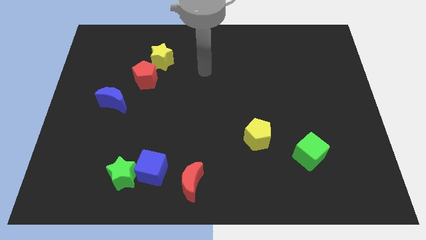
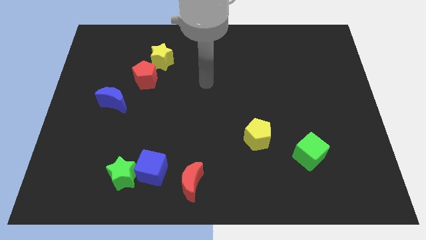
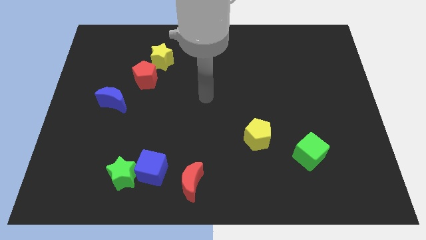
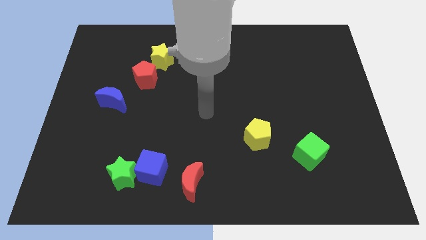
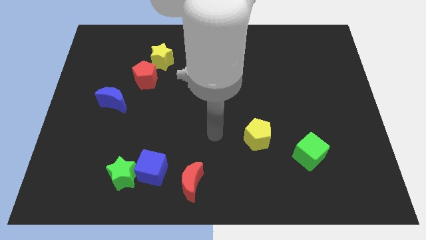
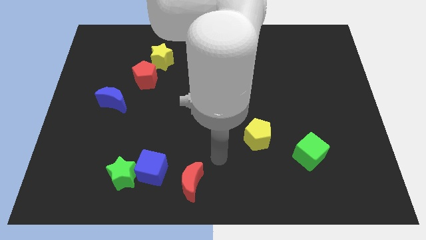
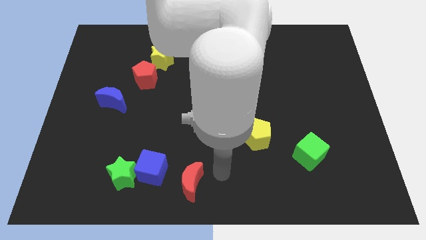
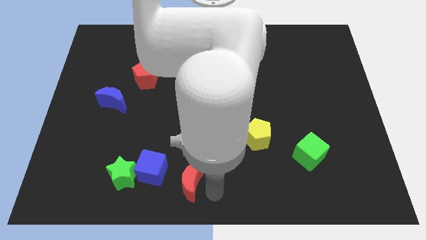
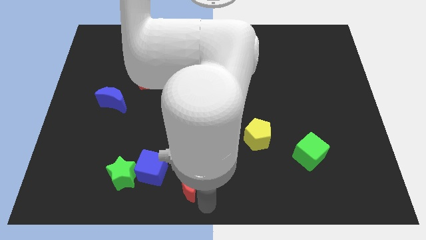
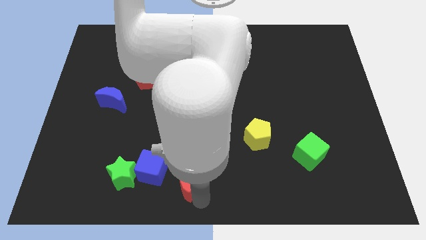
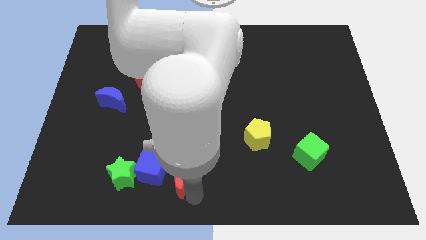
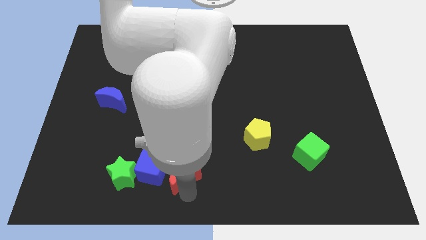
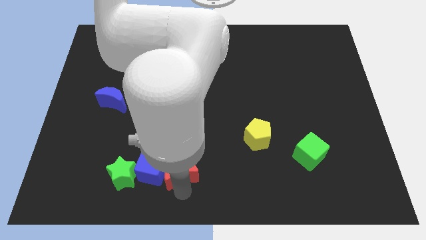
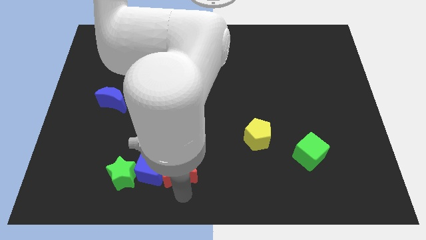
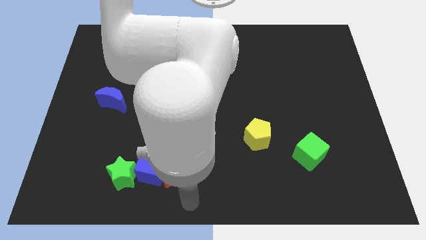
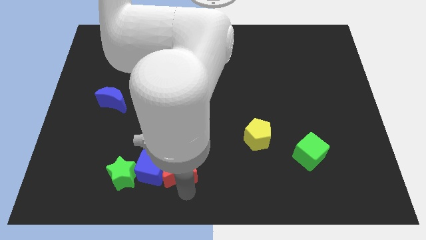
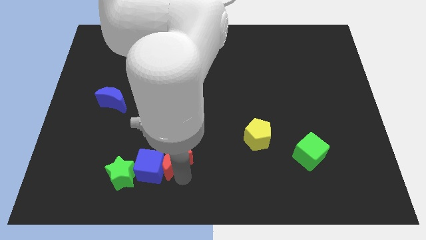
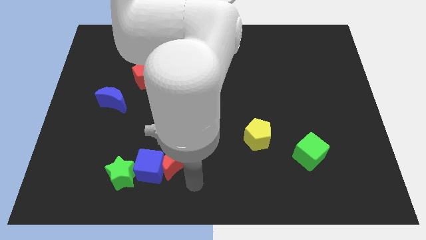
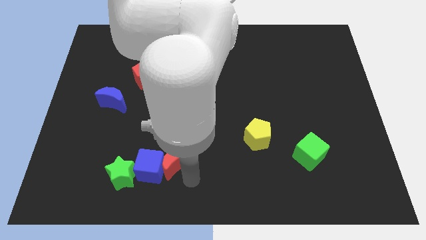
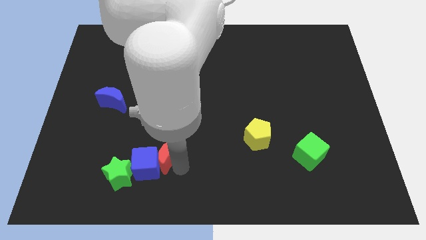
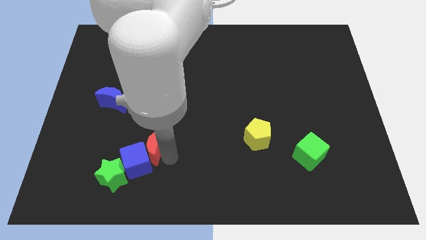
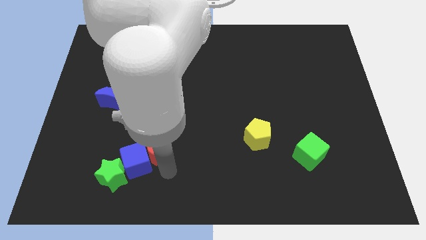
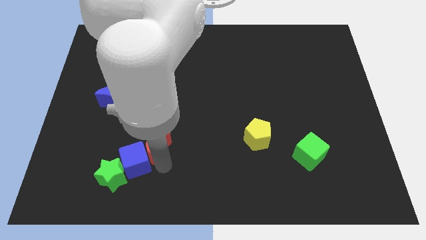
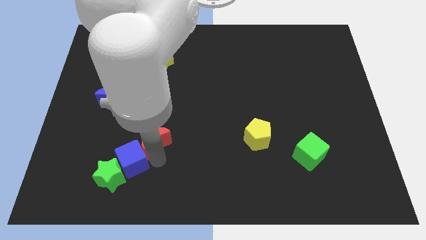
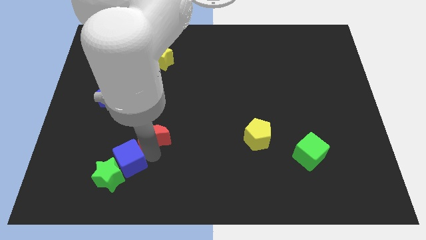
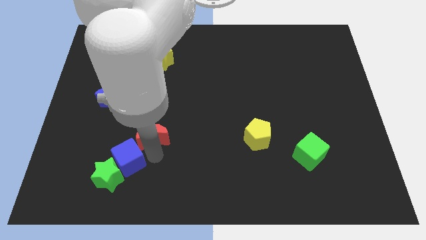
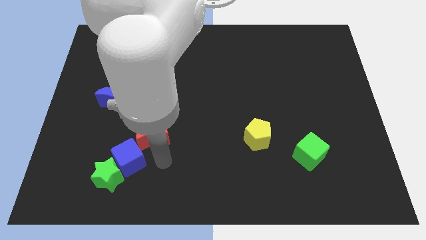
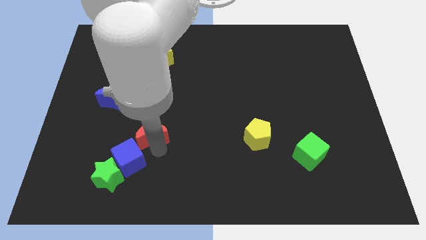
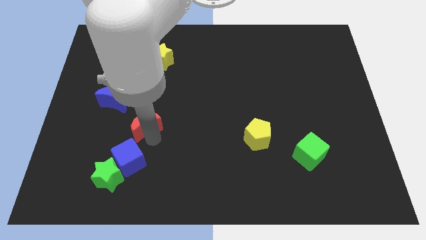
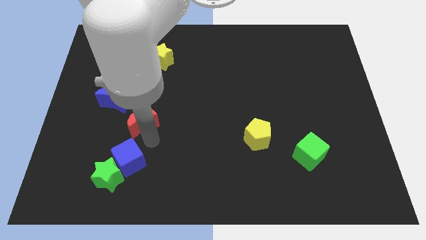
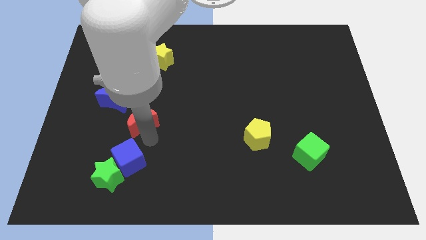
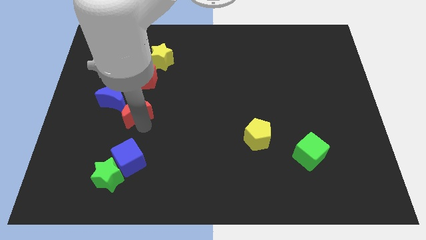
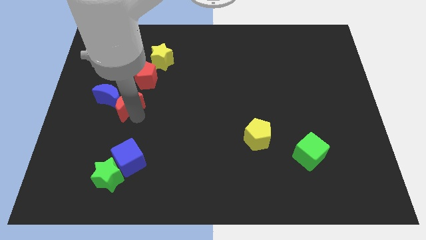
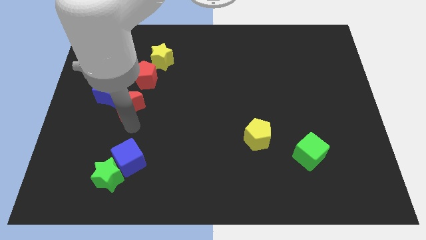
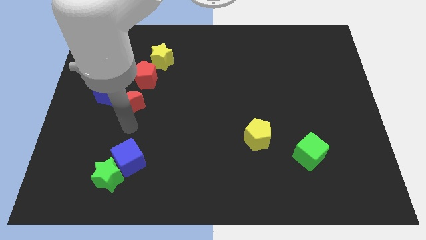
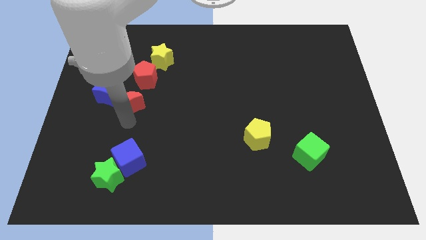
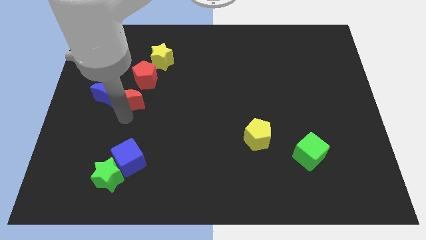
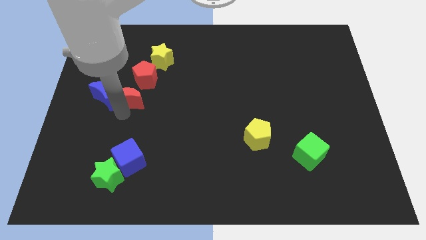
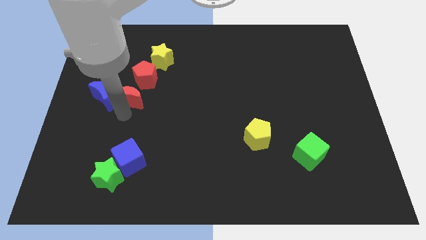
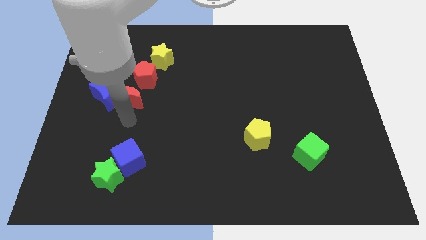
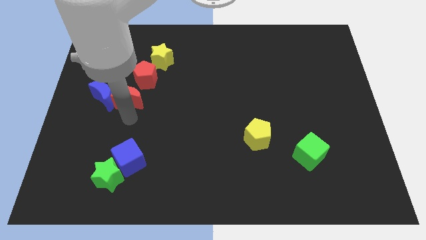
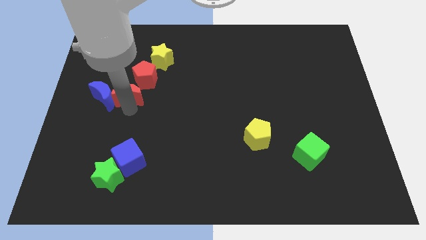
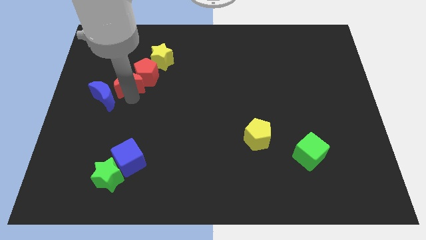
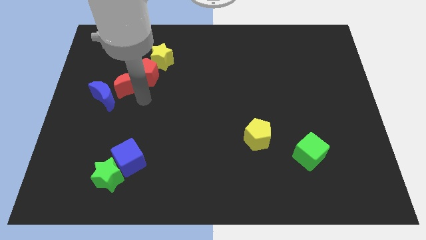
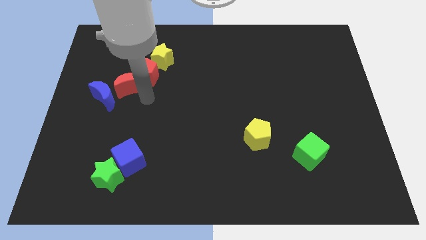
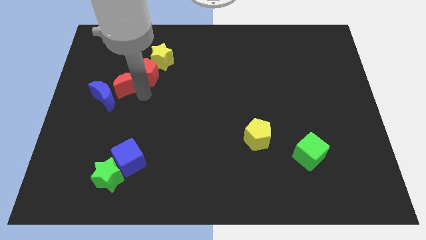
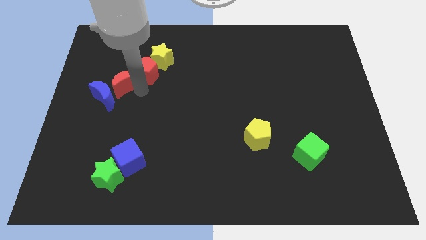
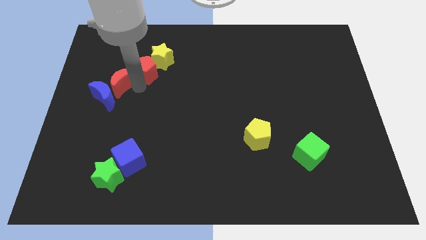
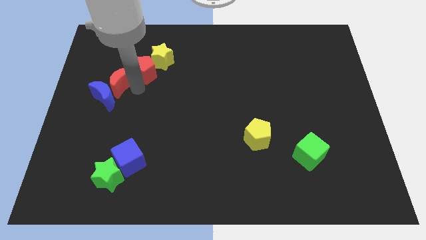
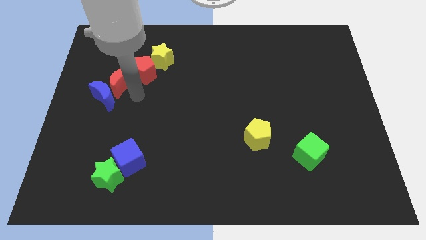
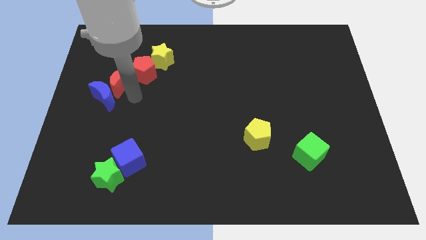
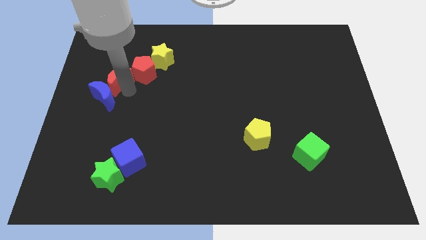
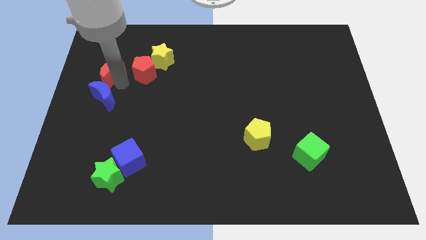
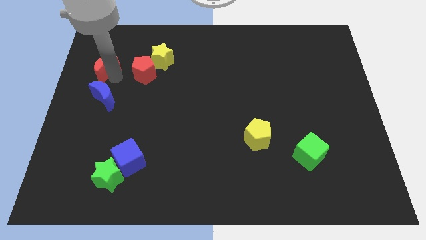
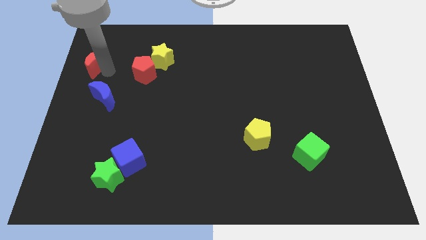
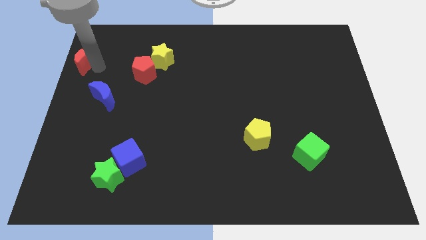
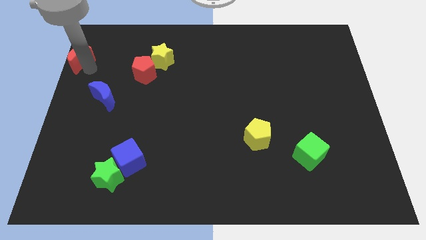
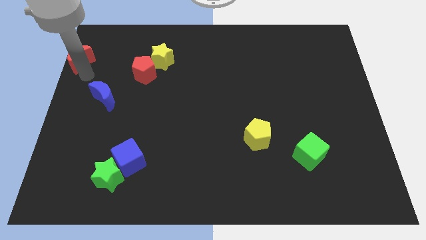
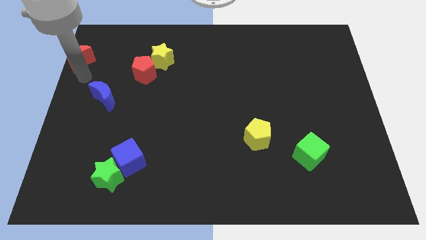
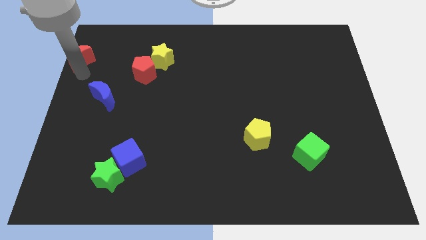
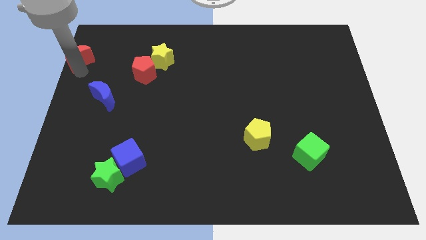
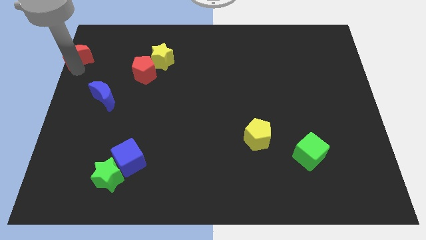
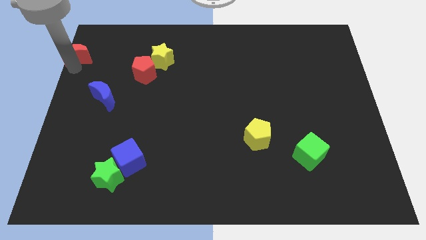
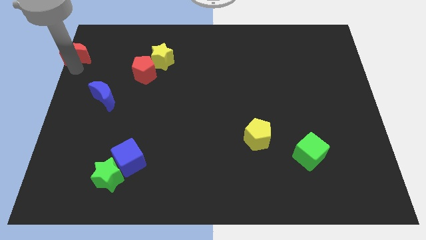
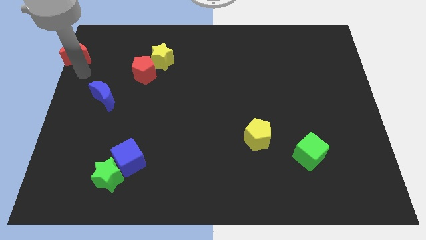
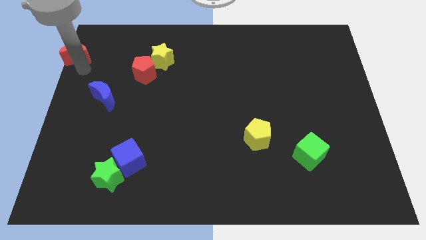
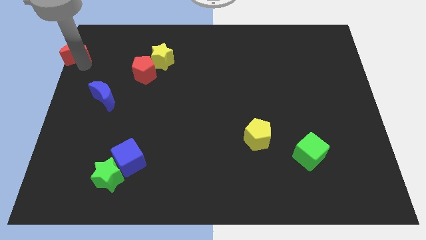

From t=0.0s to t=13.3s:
slide the red moon to the upper left corner
